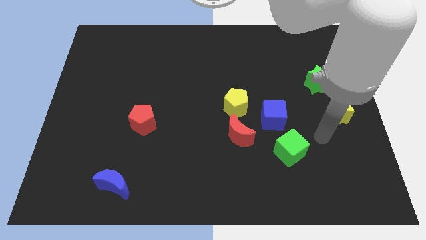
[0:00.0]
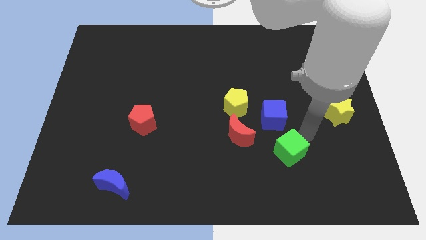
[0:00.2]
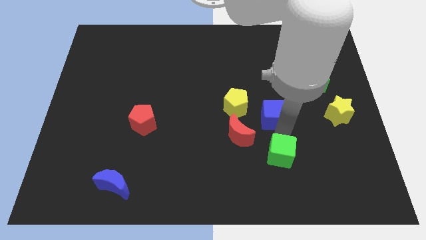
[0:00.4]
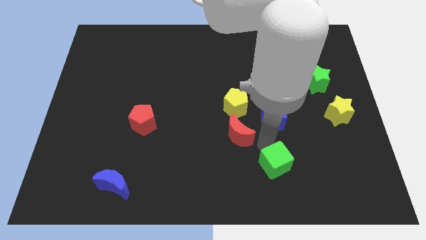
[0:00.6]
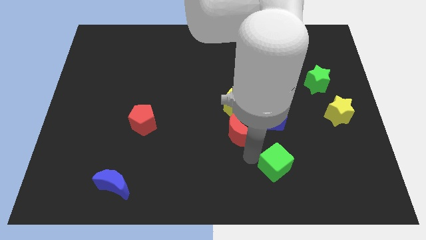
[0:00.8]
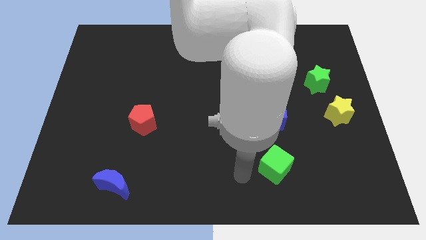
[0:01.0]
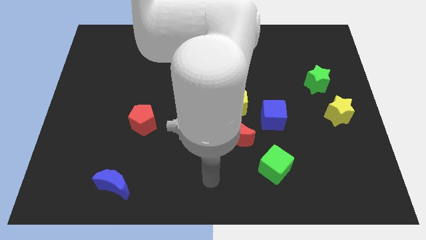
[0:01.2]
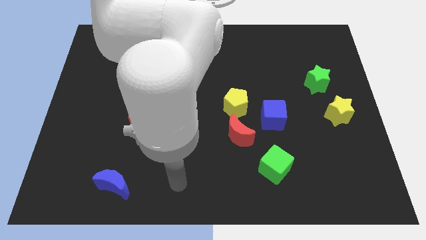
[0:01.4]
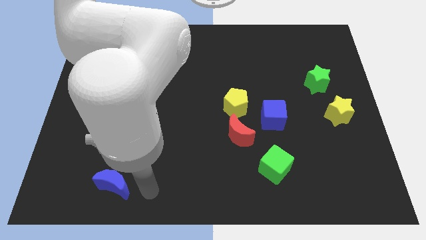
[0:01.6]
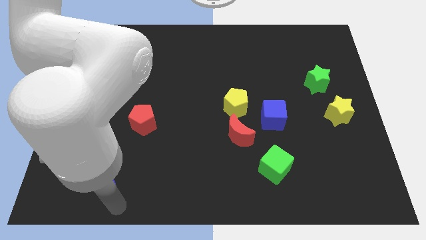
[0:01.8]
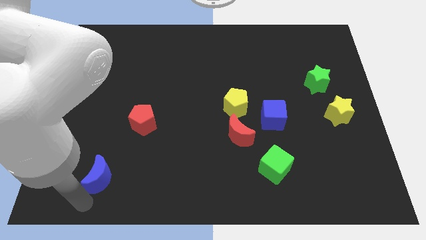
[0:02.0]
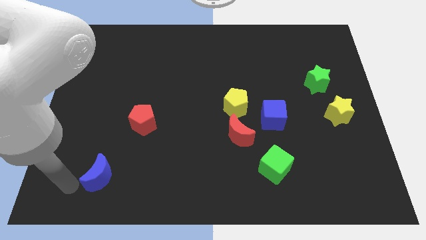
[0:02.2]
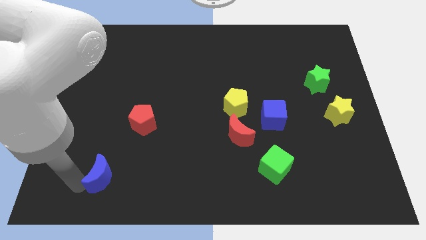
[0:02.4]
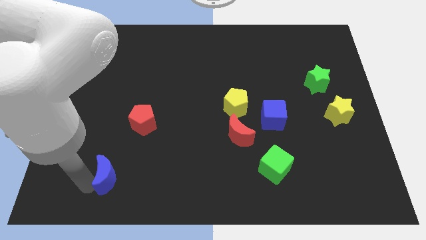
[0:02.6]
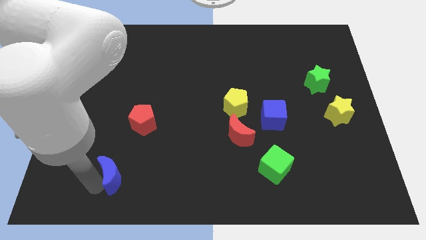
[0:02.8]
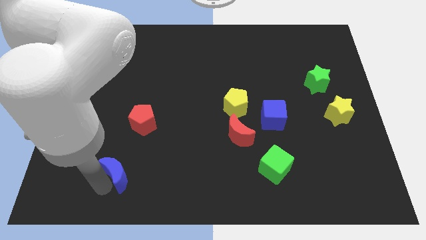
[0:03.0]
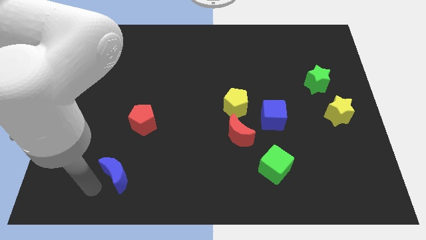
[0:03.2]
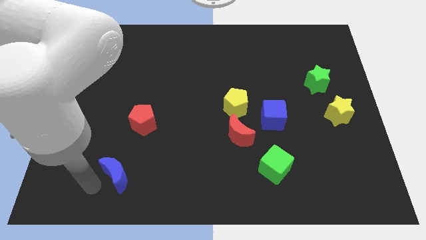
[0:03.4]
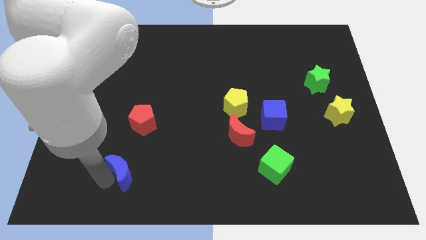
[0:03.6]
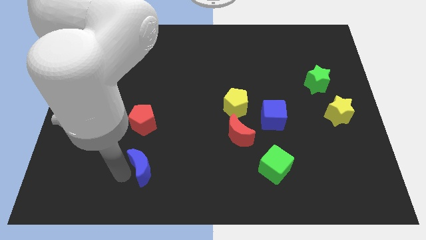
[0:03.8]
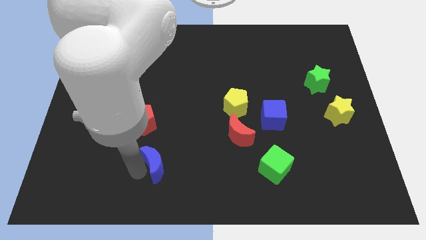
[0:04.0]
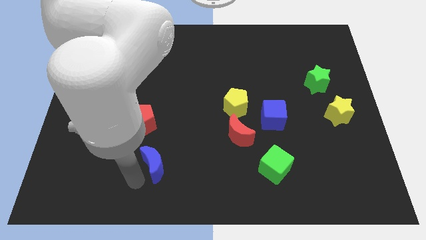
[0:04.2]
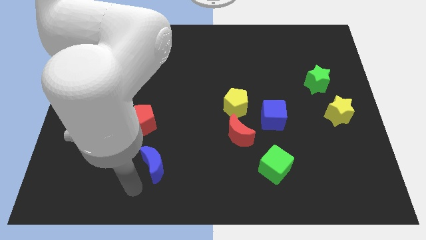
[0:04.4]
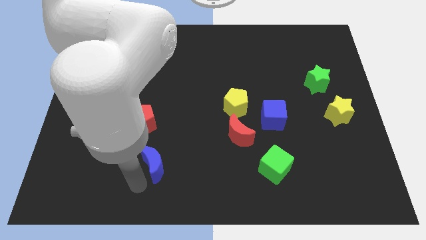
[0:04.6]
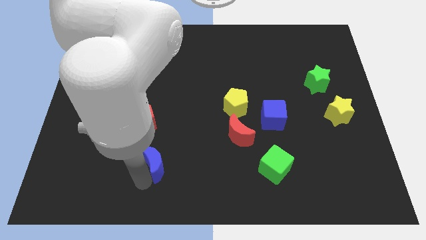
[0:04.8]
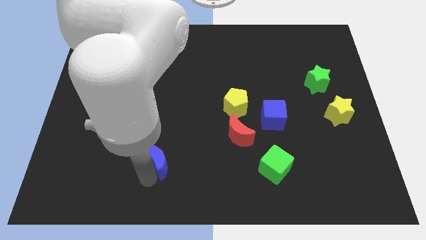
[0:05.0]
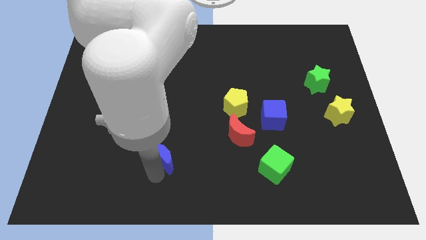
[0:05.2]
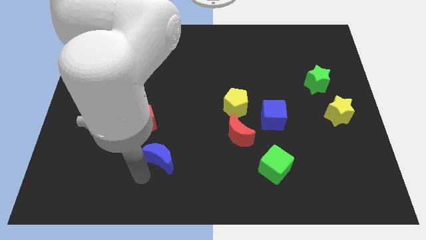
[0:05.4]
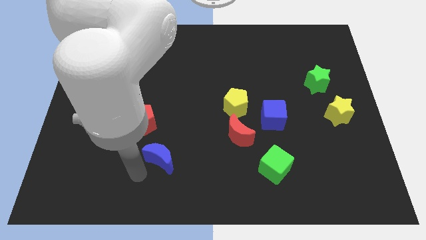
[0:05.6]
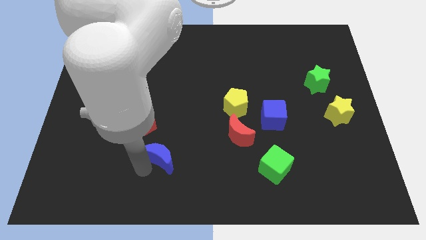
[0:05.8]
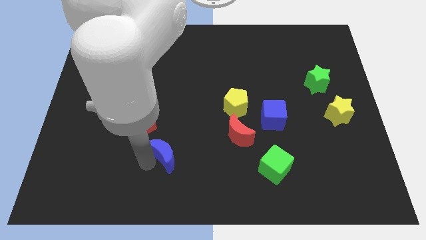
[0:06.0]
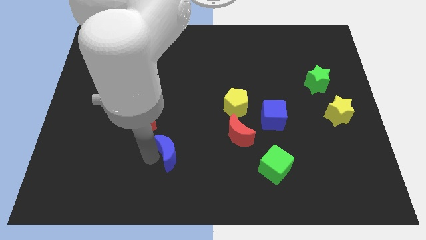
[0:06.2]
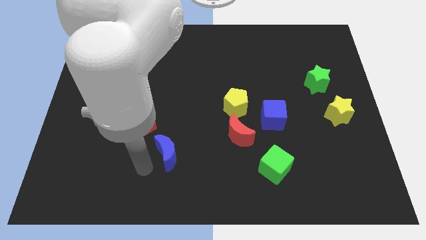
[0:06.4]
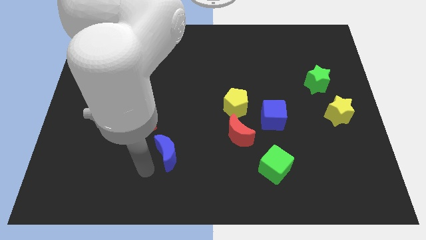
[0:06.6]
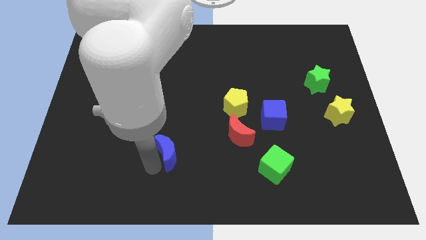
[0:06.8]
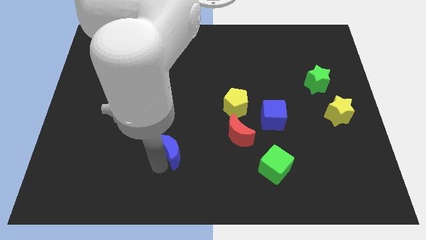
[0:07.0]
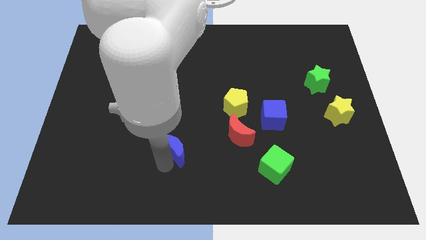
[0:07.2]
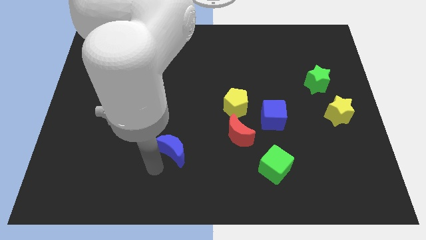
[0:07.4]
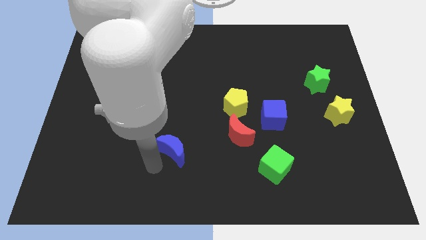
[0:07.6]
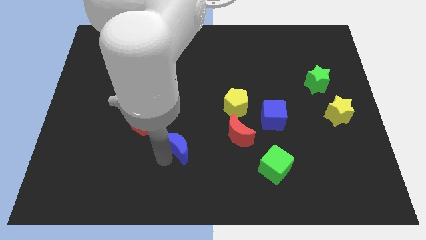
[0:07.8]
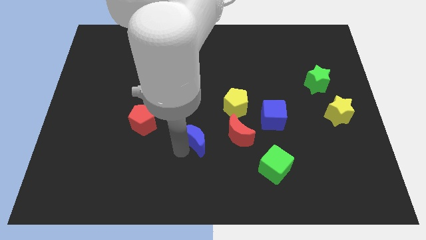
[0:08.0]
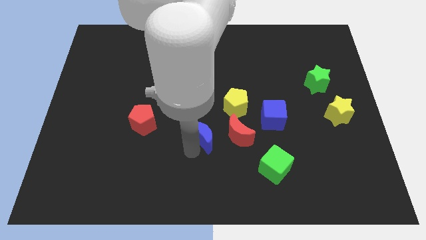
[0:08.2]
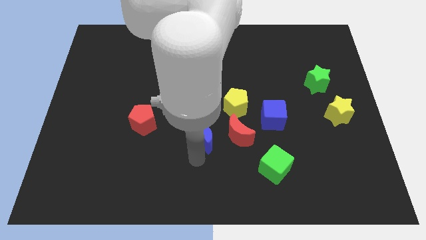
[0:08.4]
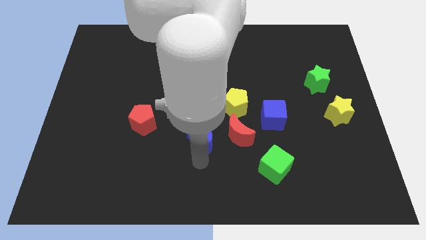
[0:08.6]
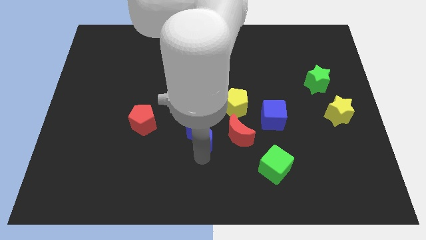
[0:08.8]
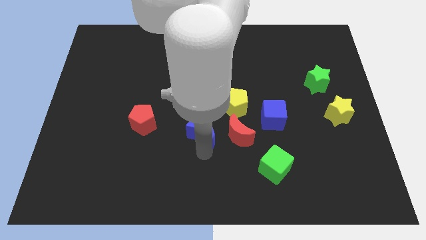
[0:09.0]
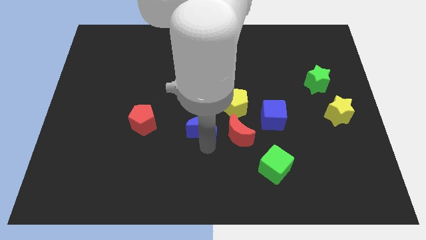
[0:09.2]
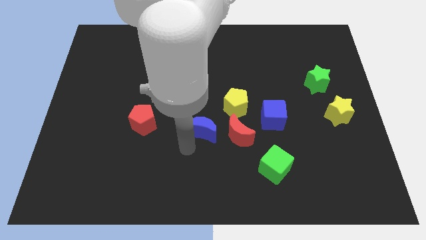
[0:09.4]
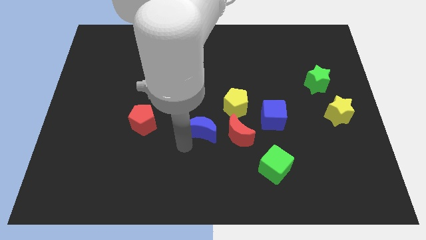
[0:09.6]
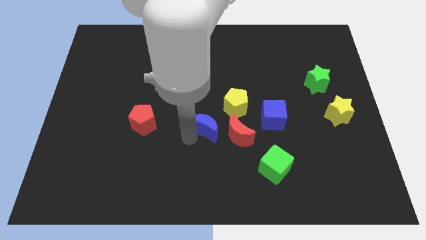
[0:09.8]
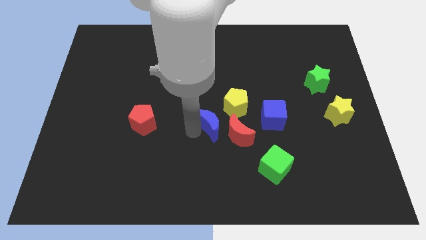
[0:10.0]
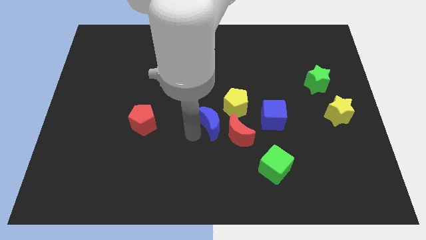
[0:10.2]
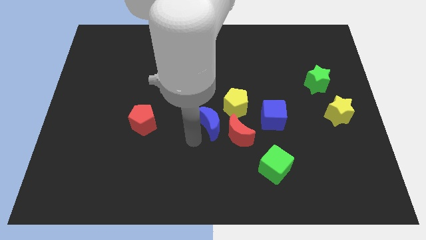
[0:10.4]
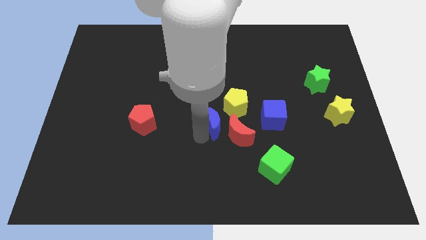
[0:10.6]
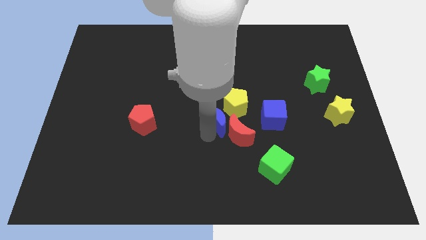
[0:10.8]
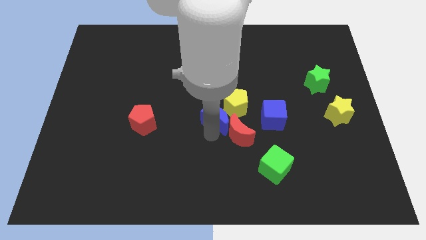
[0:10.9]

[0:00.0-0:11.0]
slide the blue moon next to the yellow pentagon

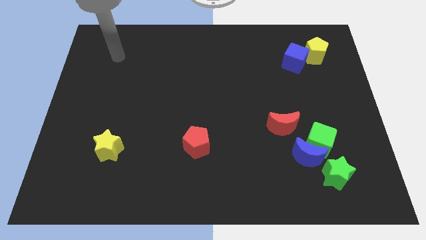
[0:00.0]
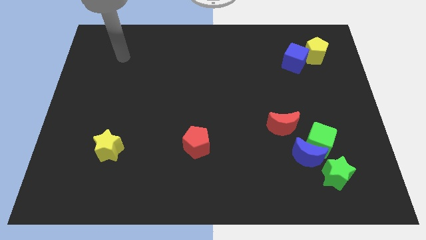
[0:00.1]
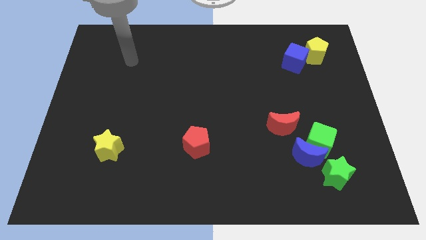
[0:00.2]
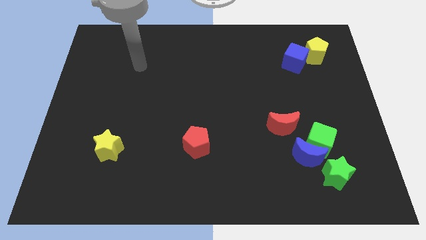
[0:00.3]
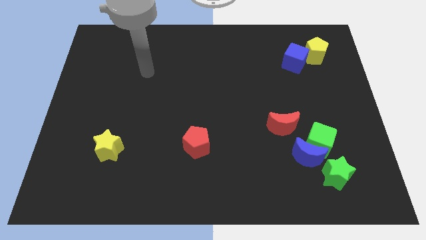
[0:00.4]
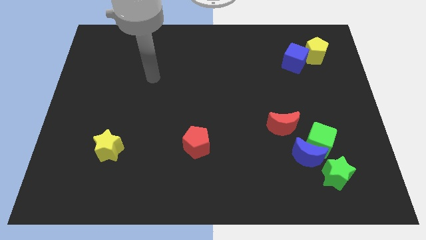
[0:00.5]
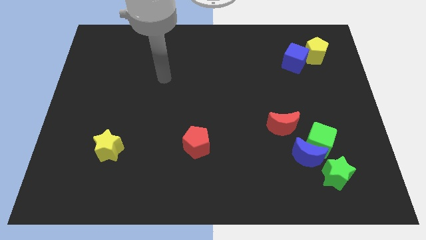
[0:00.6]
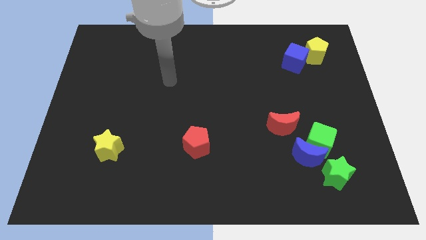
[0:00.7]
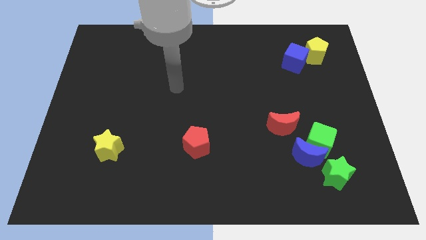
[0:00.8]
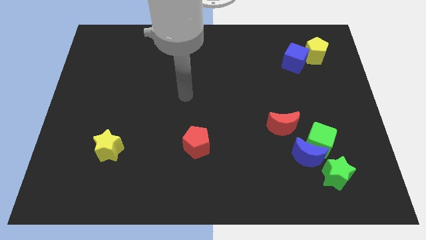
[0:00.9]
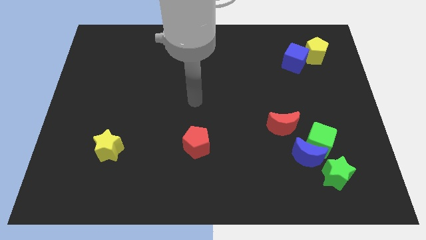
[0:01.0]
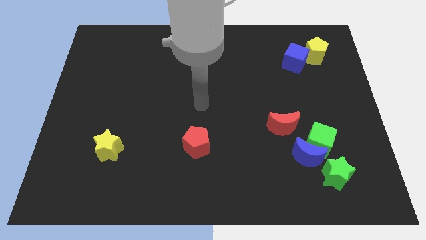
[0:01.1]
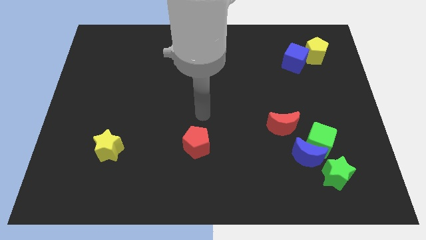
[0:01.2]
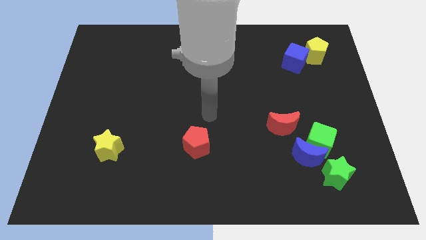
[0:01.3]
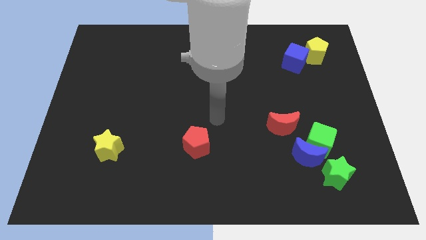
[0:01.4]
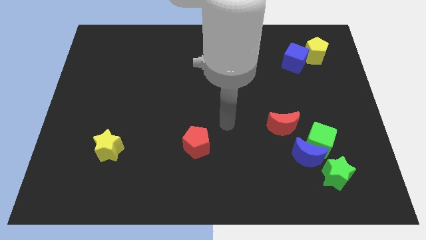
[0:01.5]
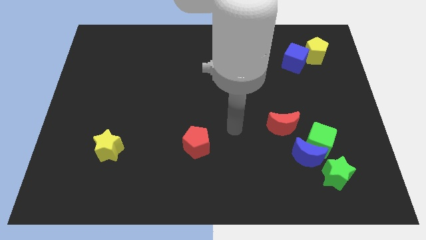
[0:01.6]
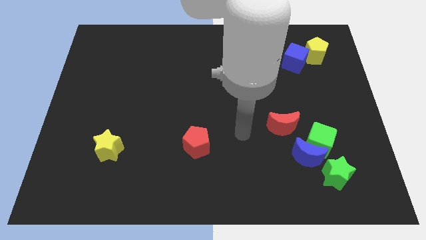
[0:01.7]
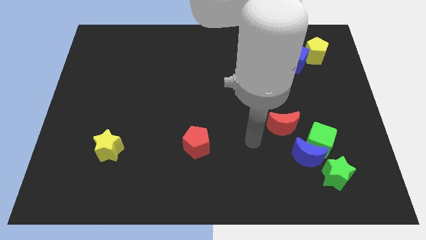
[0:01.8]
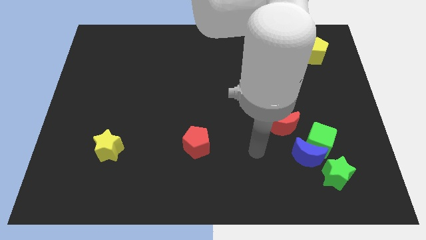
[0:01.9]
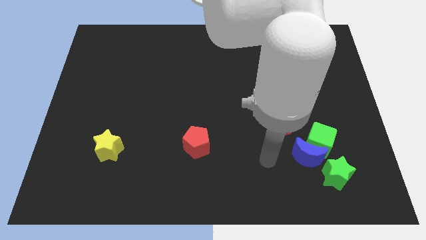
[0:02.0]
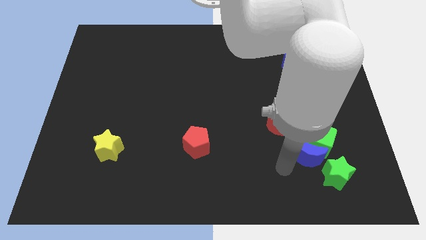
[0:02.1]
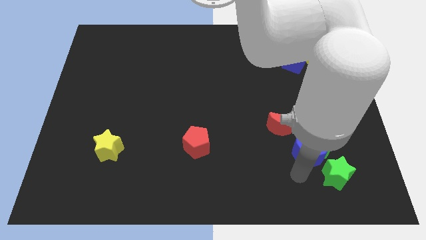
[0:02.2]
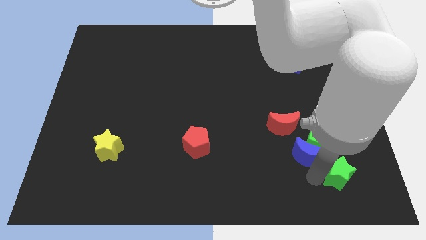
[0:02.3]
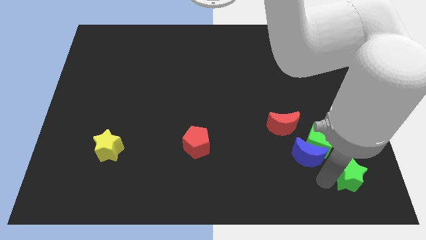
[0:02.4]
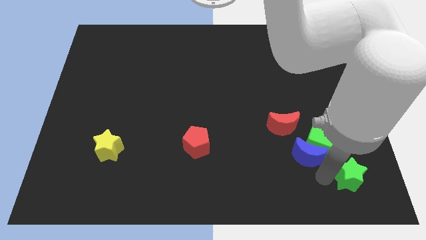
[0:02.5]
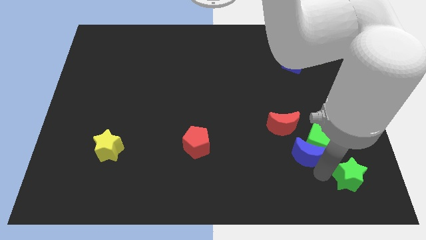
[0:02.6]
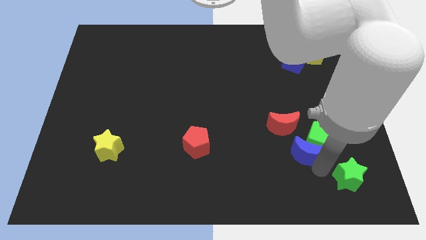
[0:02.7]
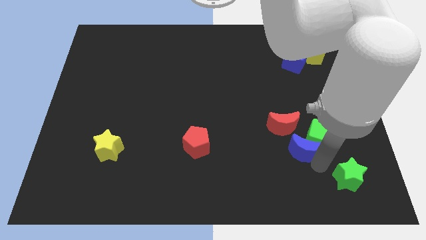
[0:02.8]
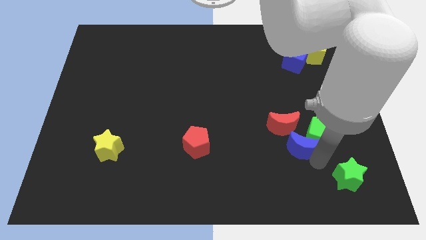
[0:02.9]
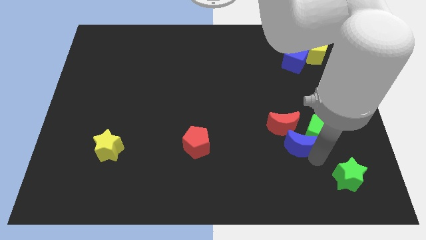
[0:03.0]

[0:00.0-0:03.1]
slide the blue moon towards the red moon
